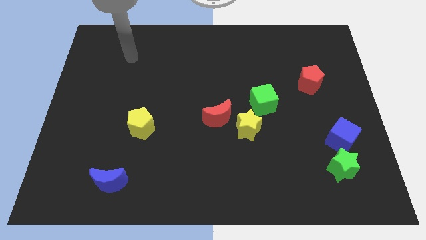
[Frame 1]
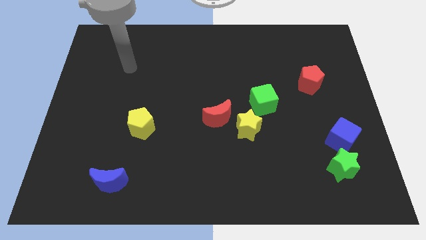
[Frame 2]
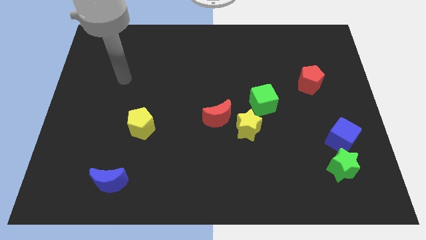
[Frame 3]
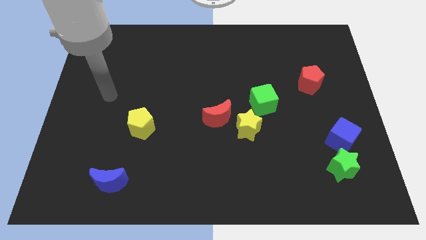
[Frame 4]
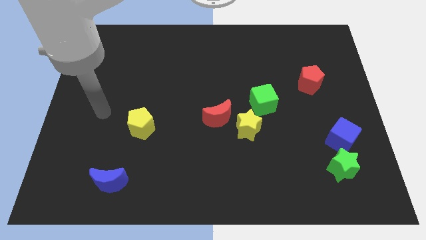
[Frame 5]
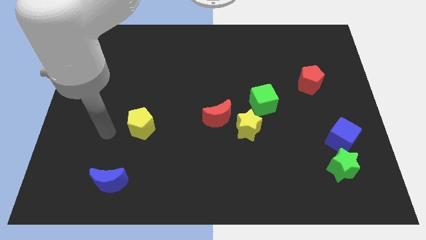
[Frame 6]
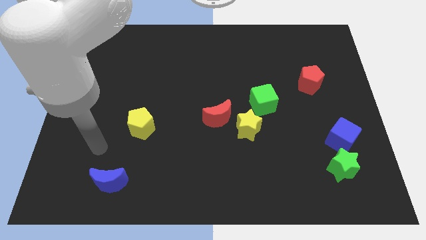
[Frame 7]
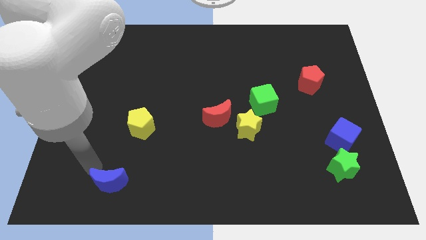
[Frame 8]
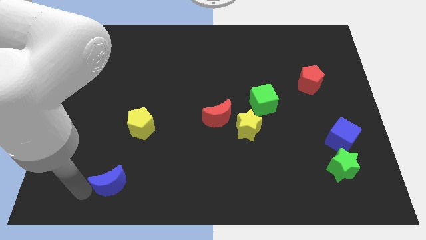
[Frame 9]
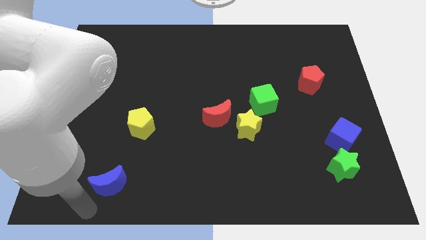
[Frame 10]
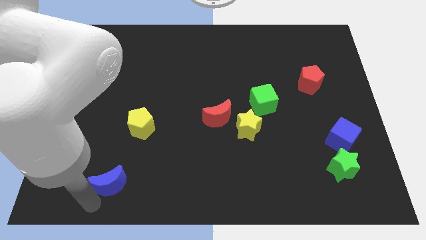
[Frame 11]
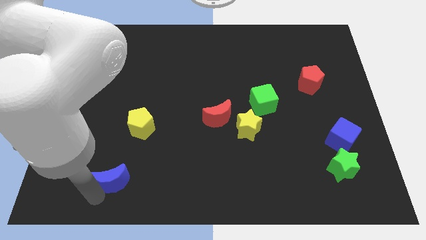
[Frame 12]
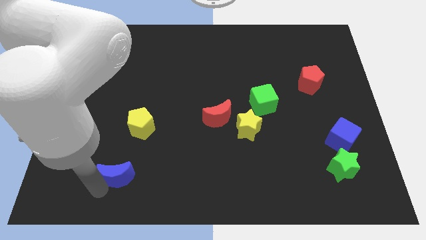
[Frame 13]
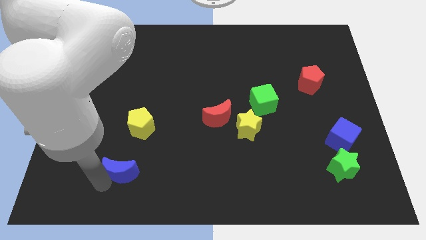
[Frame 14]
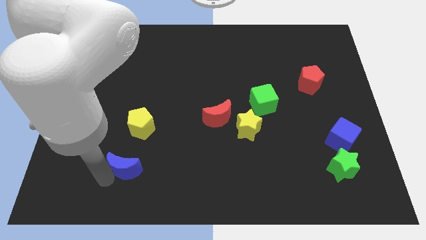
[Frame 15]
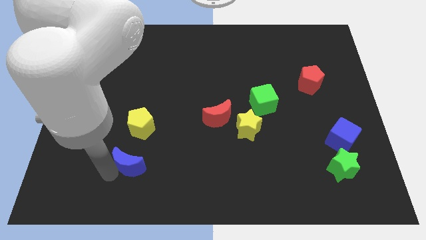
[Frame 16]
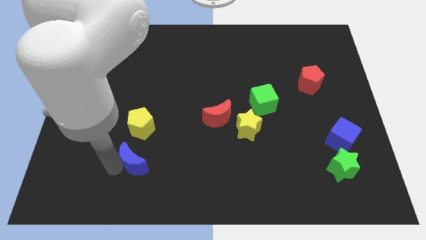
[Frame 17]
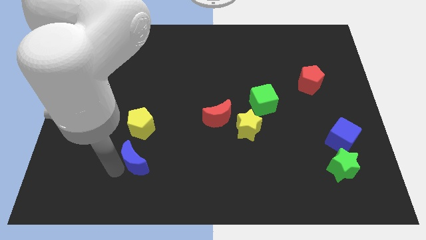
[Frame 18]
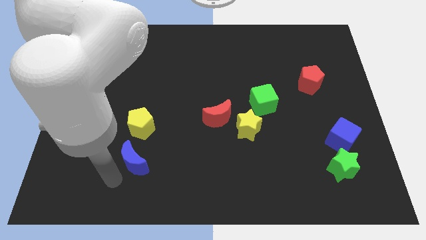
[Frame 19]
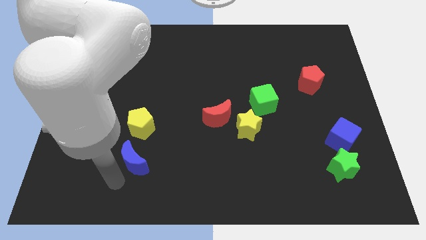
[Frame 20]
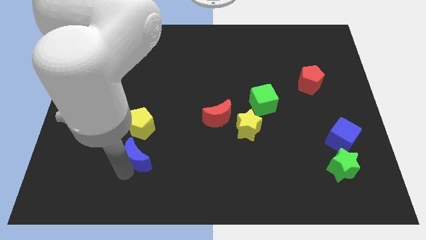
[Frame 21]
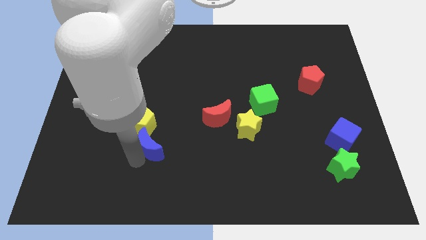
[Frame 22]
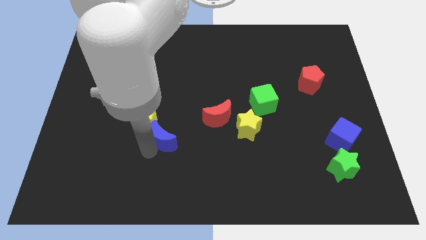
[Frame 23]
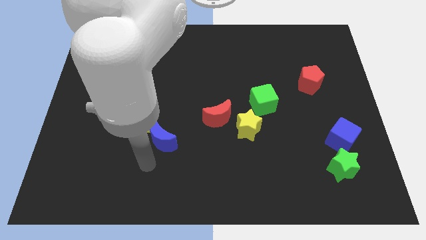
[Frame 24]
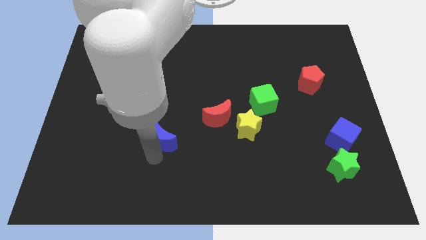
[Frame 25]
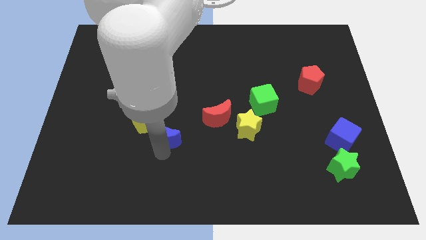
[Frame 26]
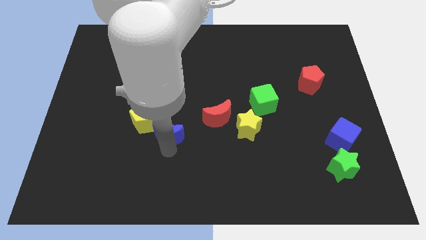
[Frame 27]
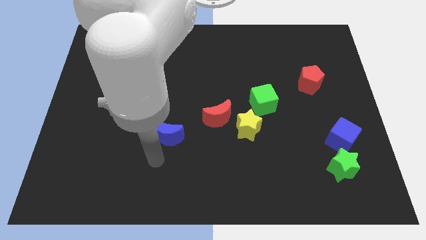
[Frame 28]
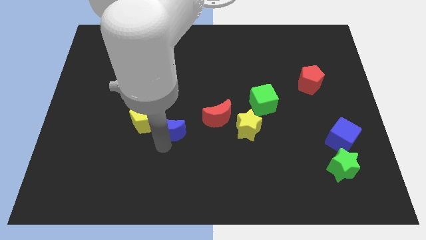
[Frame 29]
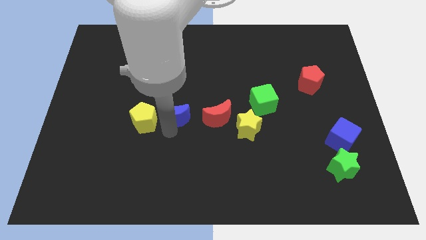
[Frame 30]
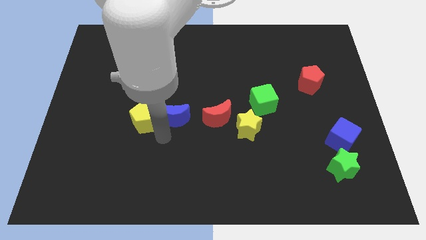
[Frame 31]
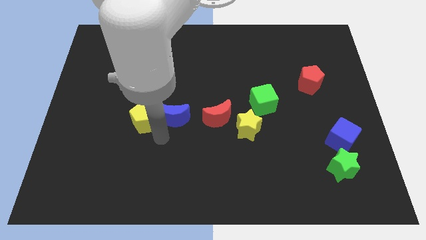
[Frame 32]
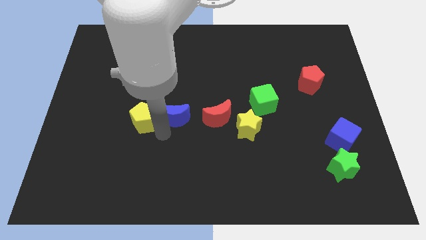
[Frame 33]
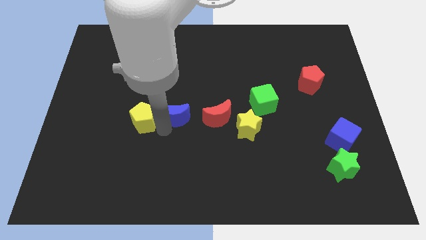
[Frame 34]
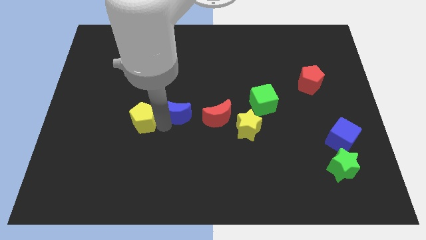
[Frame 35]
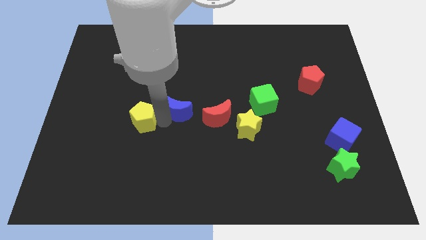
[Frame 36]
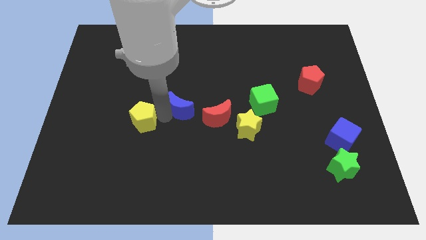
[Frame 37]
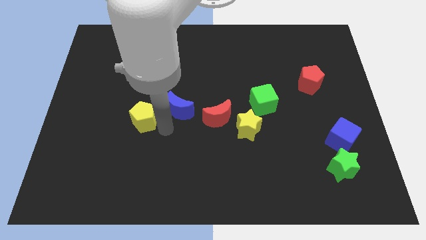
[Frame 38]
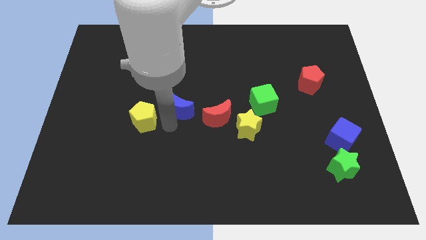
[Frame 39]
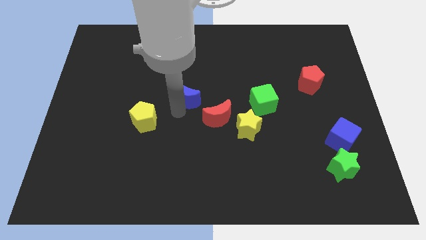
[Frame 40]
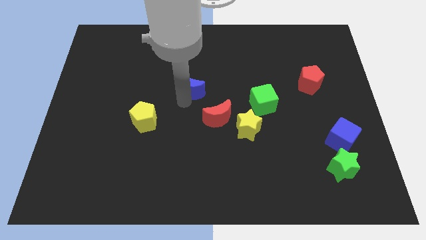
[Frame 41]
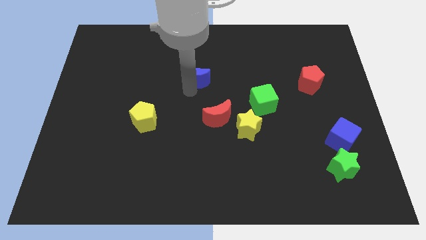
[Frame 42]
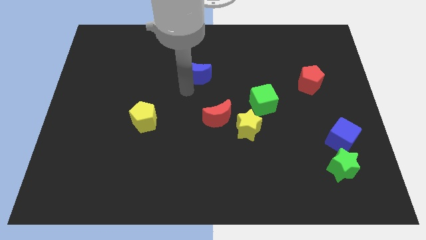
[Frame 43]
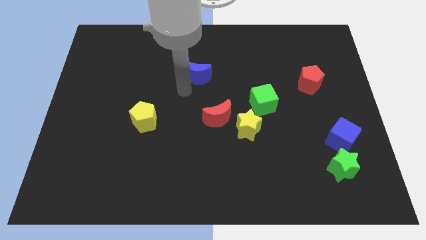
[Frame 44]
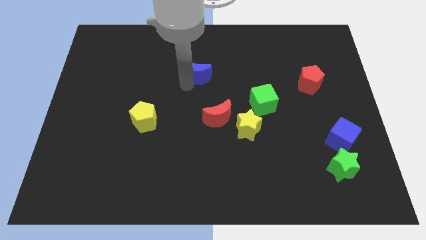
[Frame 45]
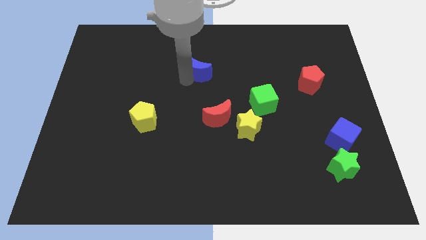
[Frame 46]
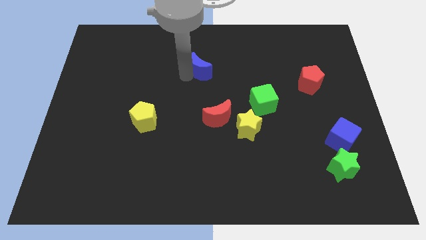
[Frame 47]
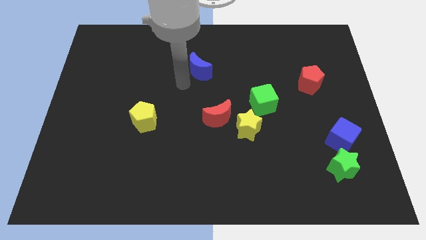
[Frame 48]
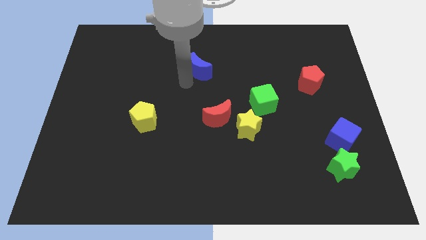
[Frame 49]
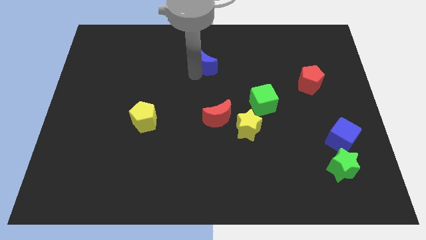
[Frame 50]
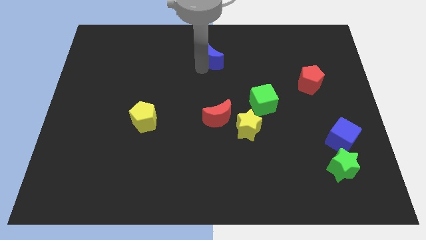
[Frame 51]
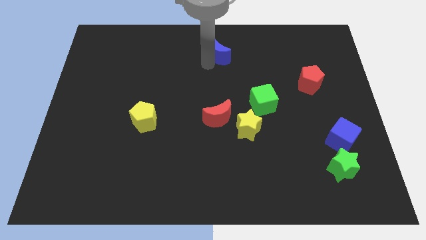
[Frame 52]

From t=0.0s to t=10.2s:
push the blue moon to the top

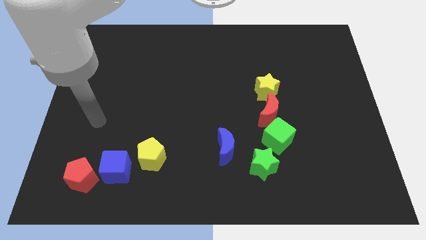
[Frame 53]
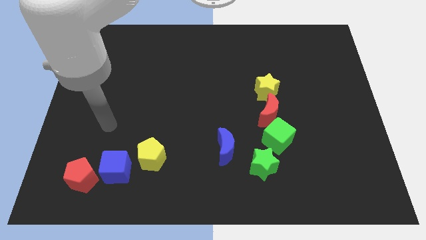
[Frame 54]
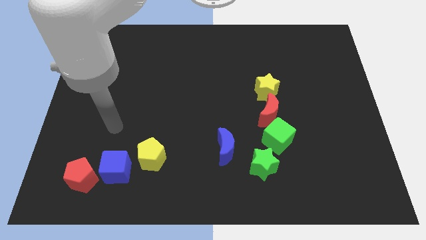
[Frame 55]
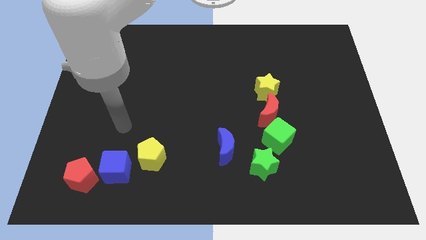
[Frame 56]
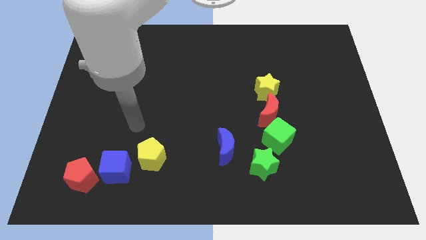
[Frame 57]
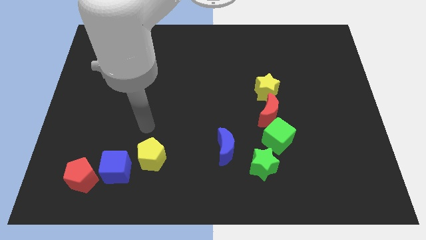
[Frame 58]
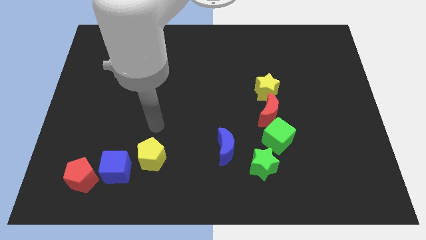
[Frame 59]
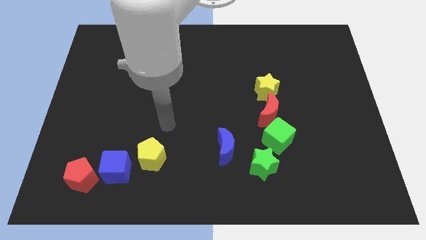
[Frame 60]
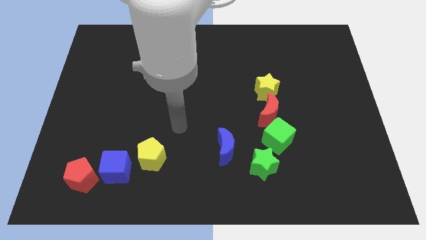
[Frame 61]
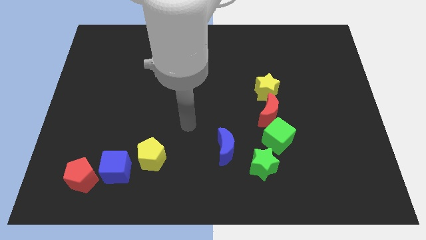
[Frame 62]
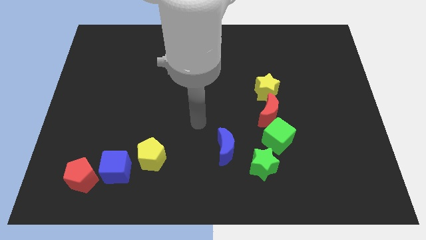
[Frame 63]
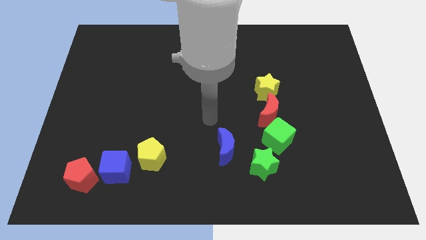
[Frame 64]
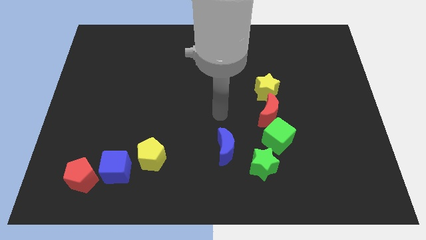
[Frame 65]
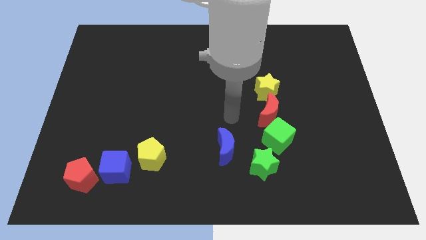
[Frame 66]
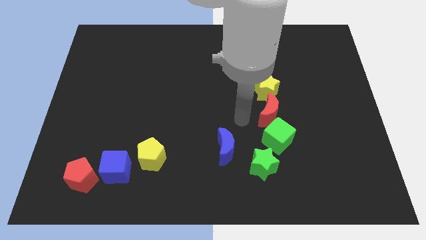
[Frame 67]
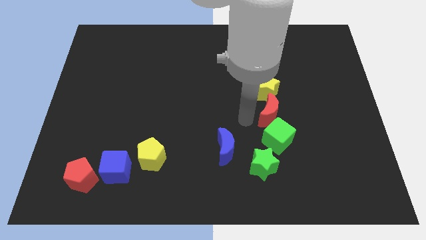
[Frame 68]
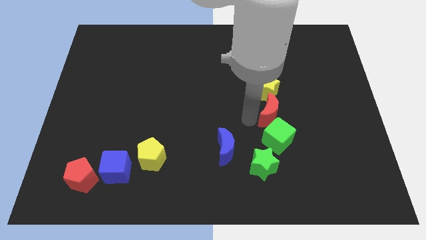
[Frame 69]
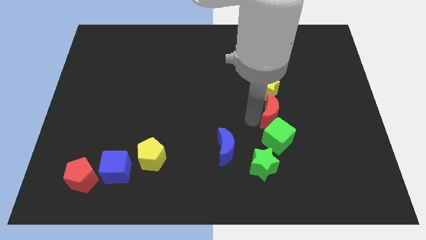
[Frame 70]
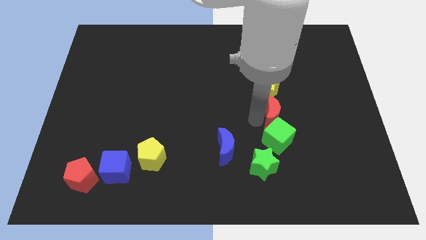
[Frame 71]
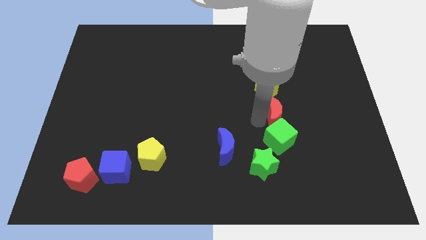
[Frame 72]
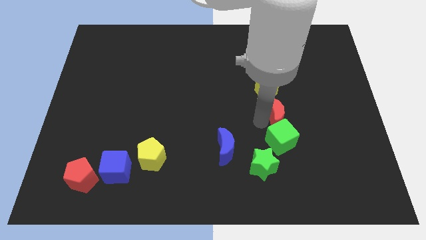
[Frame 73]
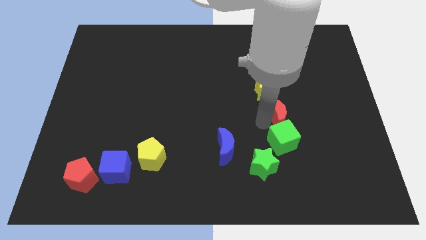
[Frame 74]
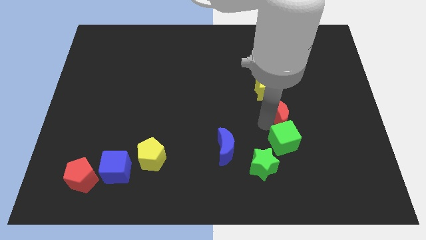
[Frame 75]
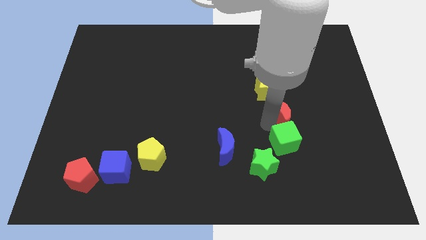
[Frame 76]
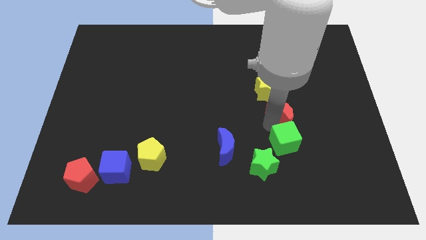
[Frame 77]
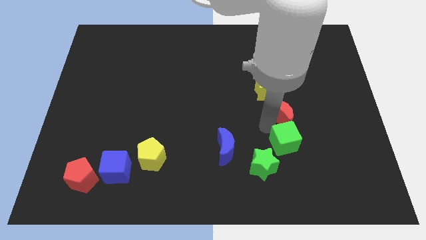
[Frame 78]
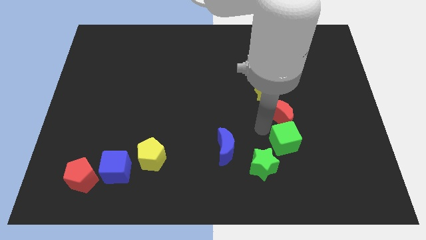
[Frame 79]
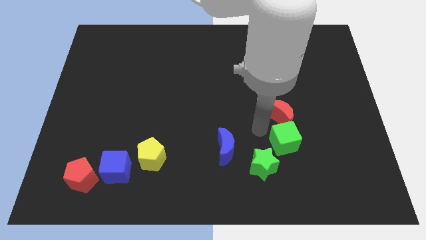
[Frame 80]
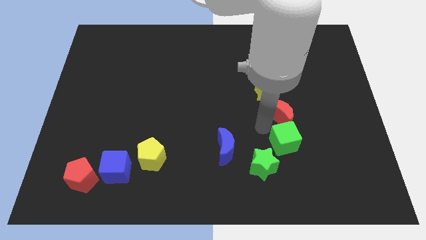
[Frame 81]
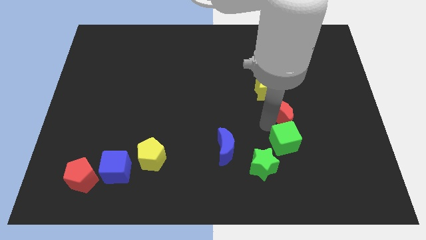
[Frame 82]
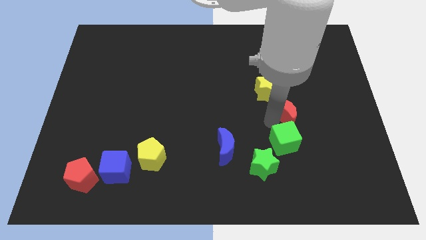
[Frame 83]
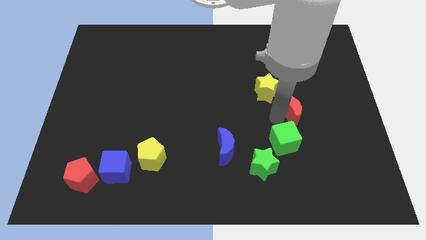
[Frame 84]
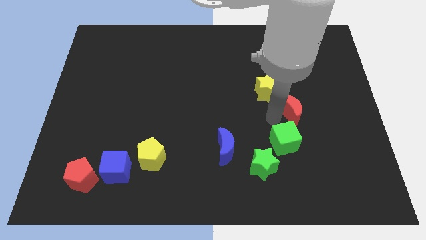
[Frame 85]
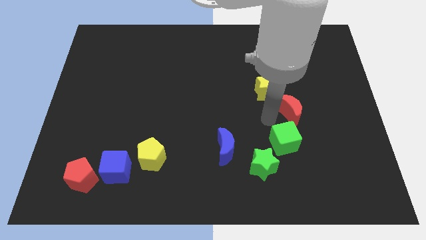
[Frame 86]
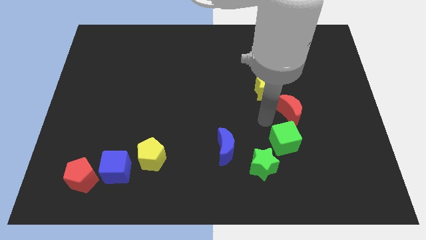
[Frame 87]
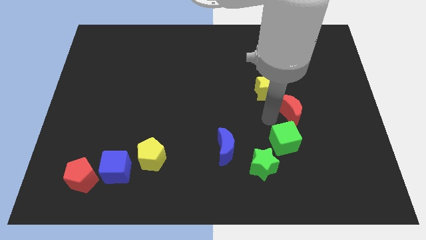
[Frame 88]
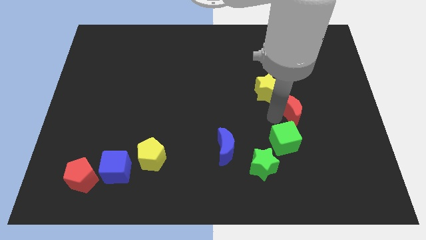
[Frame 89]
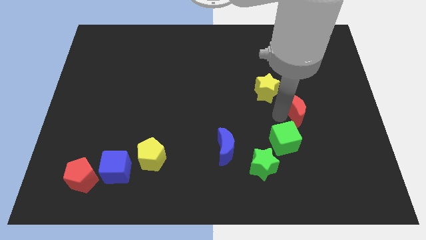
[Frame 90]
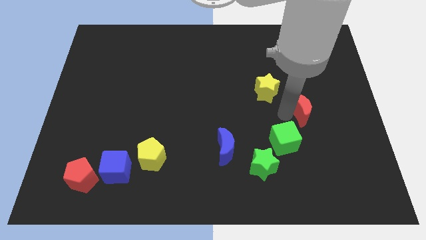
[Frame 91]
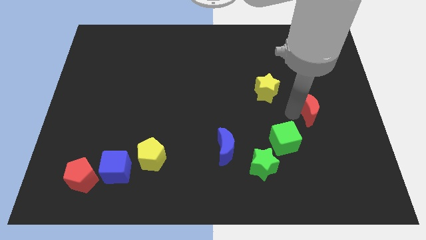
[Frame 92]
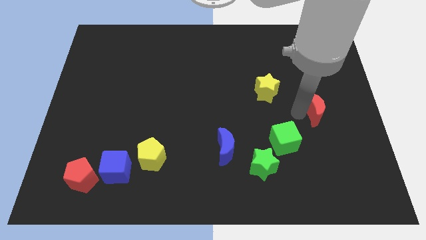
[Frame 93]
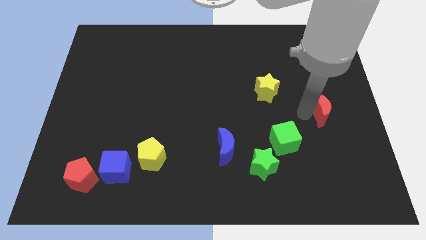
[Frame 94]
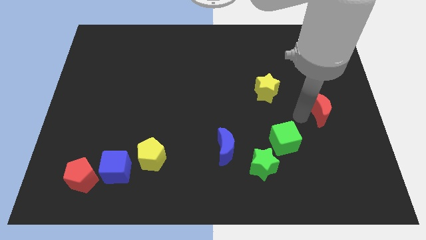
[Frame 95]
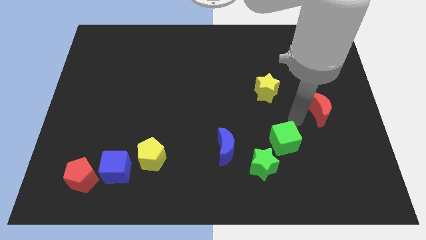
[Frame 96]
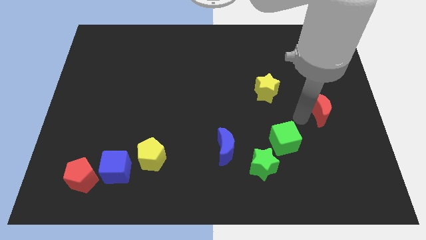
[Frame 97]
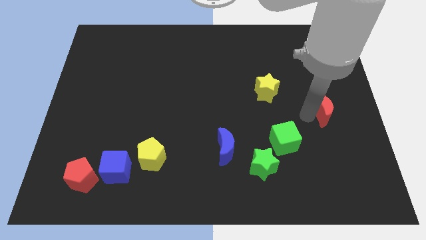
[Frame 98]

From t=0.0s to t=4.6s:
move the red moon to the right side of the board
